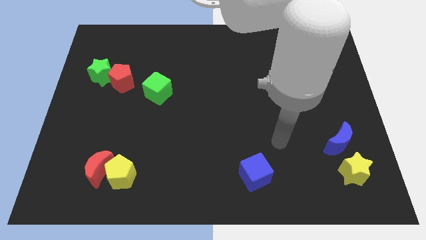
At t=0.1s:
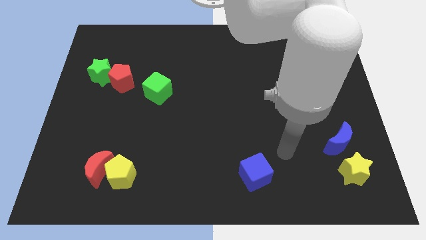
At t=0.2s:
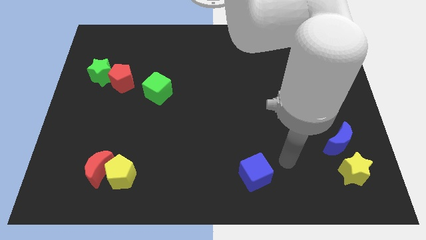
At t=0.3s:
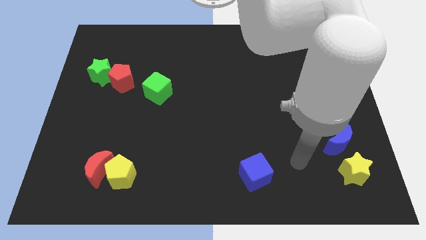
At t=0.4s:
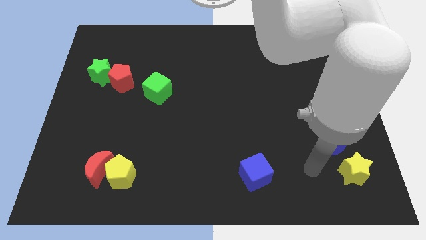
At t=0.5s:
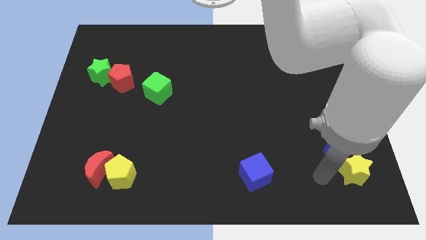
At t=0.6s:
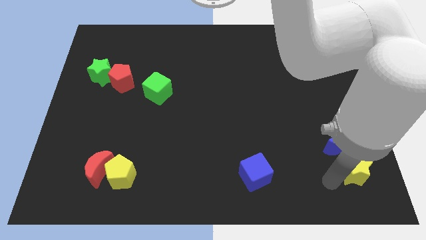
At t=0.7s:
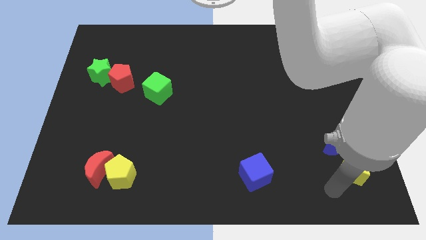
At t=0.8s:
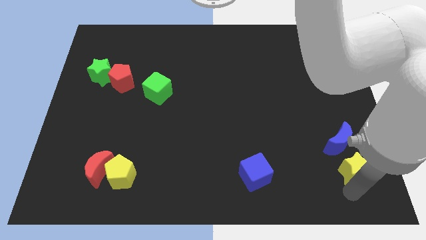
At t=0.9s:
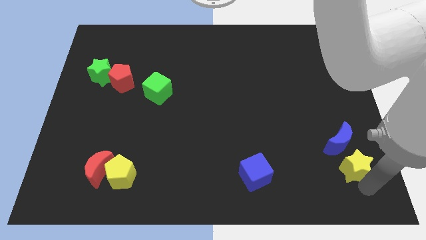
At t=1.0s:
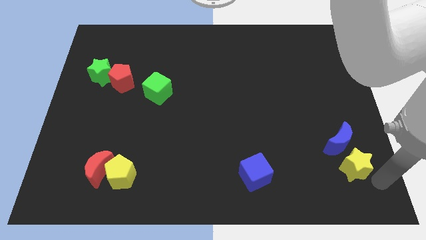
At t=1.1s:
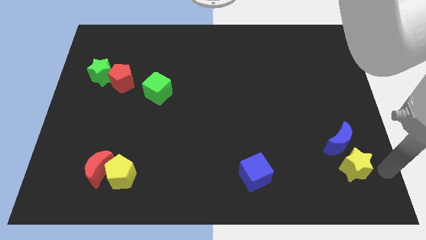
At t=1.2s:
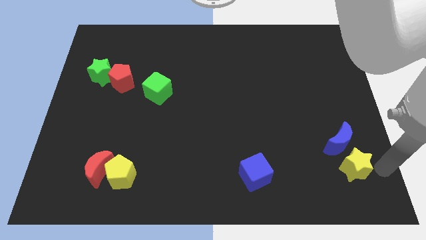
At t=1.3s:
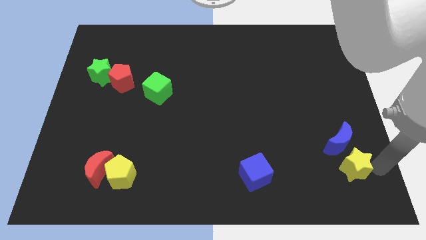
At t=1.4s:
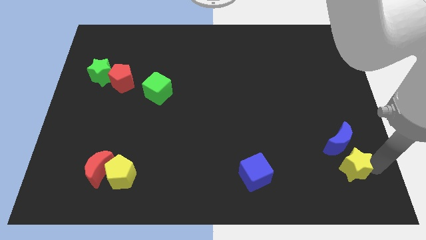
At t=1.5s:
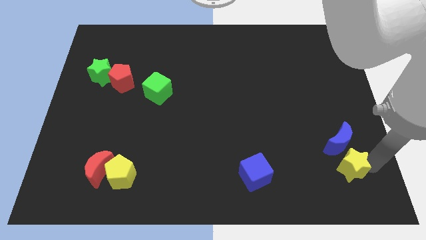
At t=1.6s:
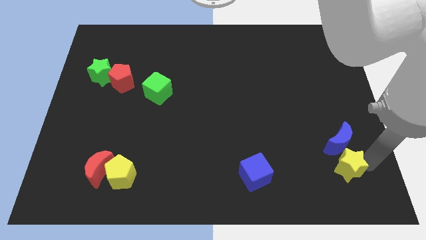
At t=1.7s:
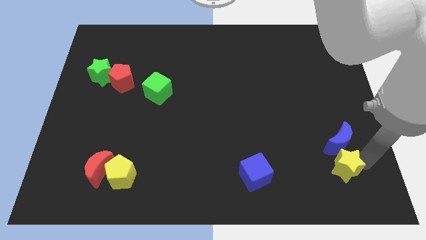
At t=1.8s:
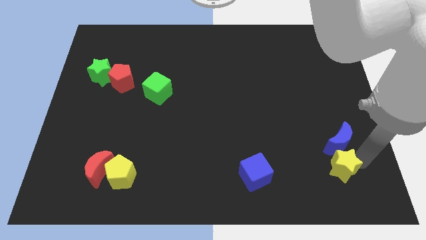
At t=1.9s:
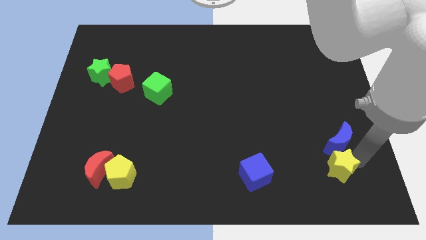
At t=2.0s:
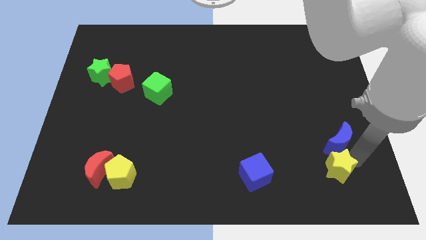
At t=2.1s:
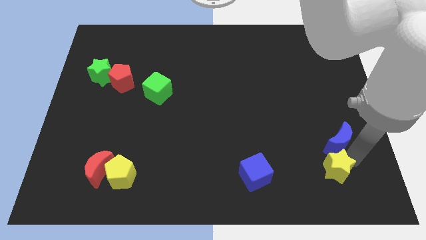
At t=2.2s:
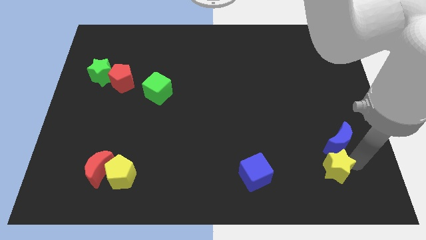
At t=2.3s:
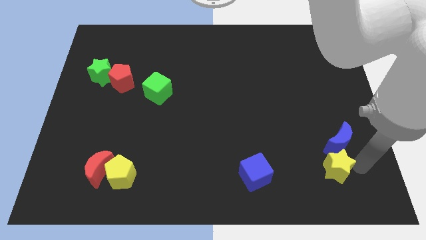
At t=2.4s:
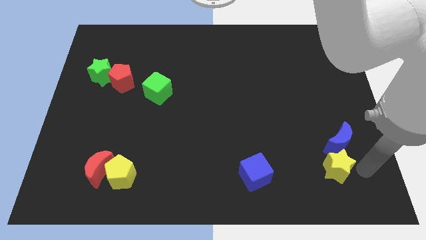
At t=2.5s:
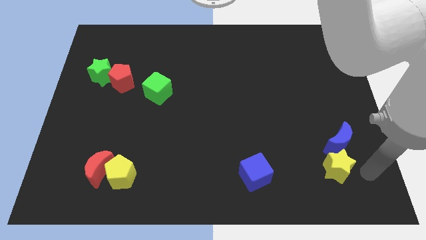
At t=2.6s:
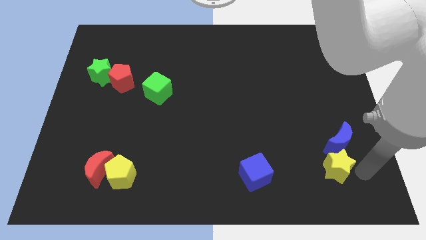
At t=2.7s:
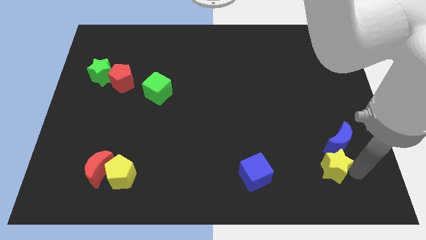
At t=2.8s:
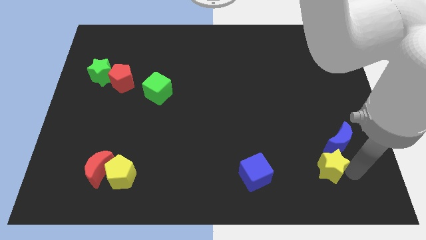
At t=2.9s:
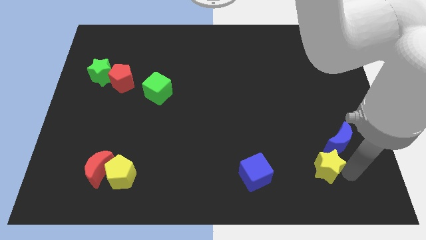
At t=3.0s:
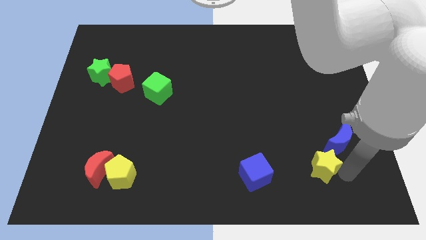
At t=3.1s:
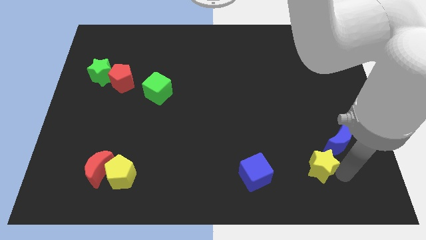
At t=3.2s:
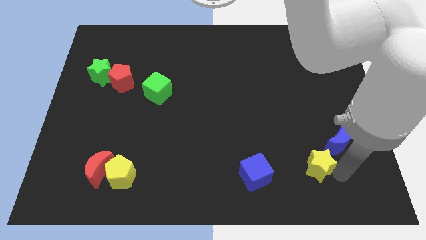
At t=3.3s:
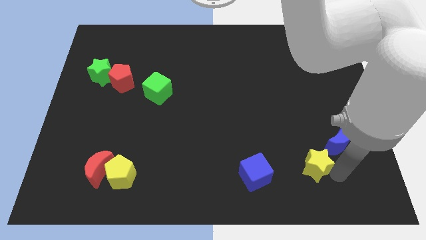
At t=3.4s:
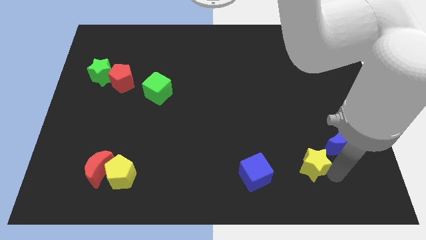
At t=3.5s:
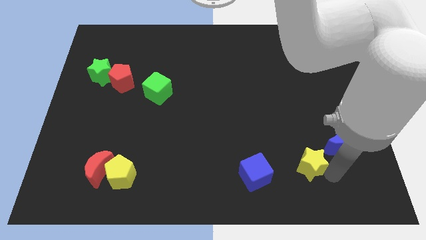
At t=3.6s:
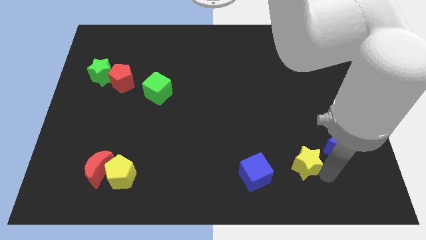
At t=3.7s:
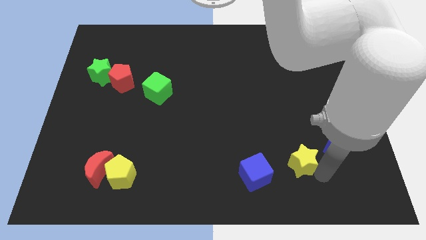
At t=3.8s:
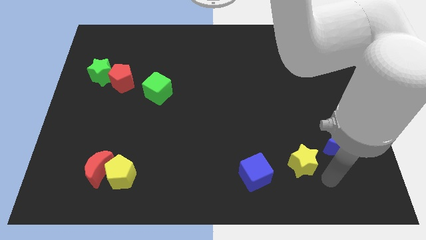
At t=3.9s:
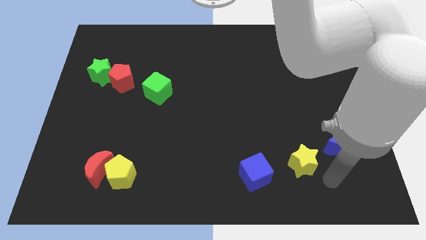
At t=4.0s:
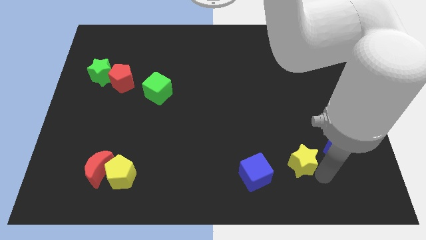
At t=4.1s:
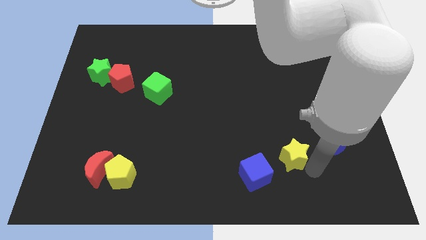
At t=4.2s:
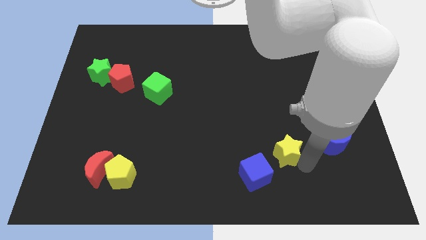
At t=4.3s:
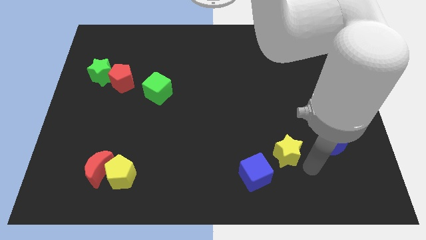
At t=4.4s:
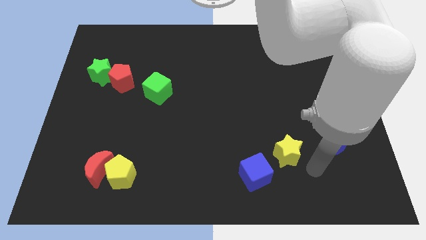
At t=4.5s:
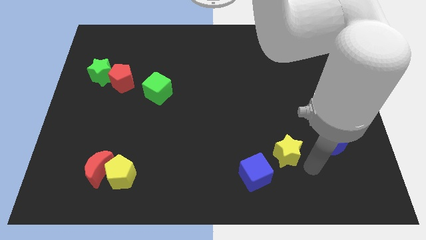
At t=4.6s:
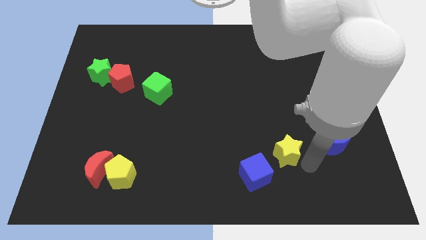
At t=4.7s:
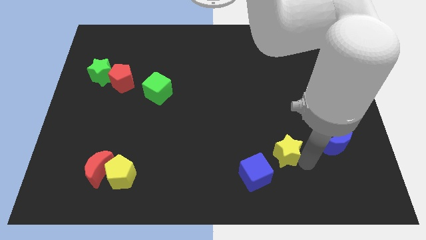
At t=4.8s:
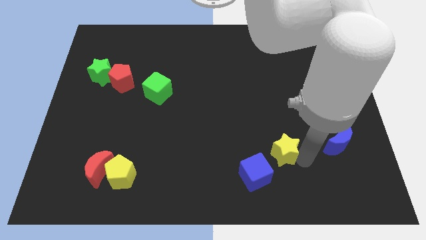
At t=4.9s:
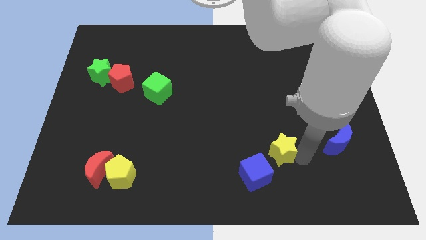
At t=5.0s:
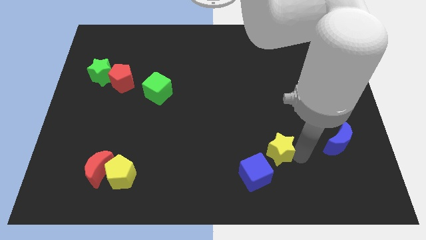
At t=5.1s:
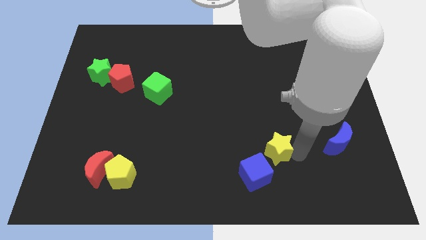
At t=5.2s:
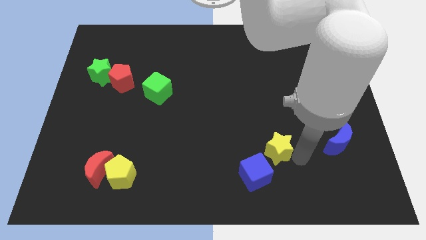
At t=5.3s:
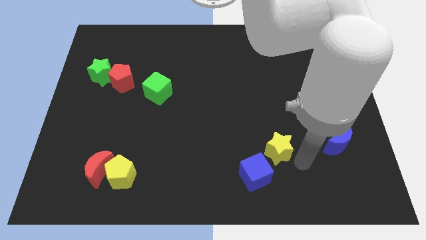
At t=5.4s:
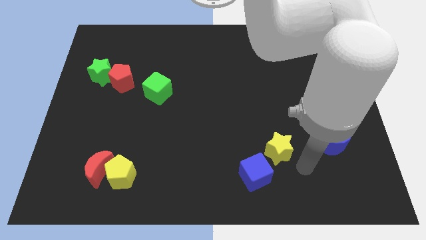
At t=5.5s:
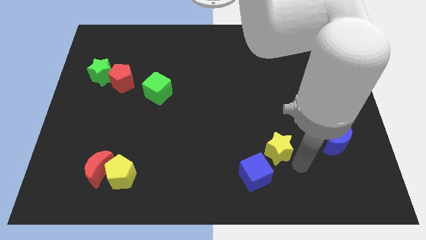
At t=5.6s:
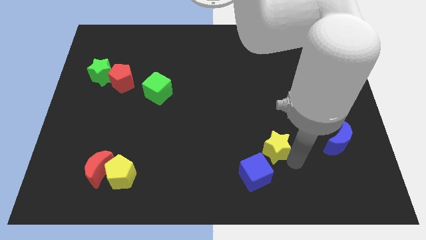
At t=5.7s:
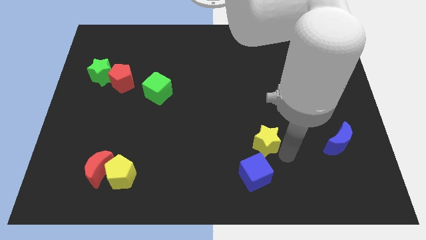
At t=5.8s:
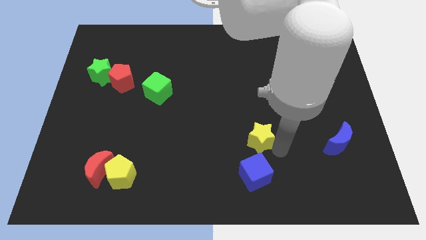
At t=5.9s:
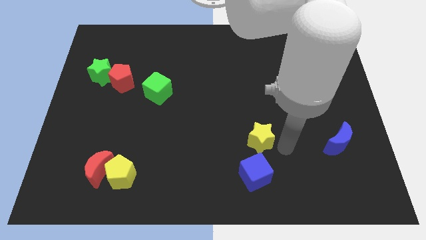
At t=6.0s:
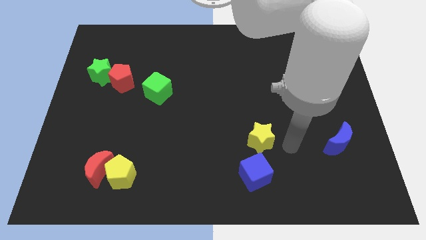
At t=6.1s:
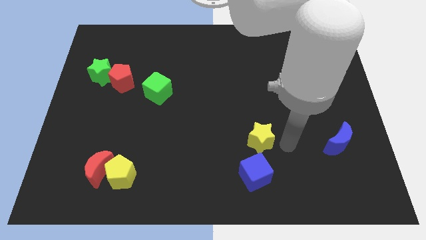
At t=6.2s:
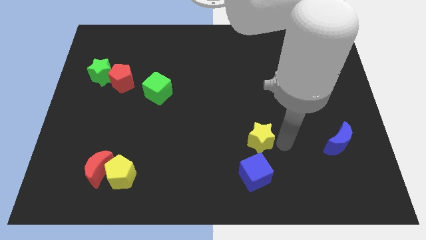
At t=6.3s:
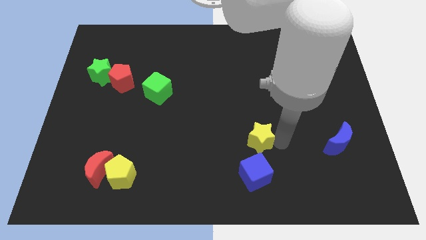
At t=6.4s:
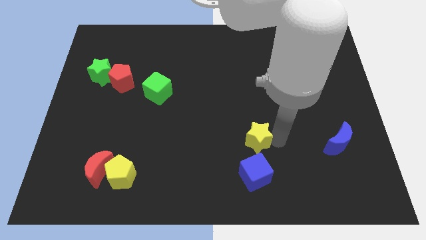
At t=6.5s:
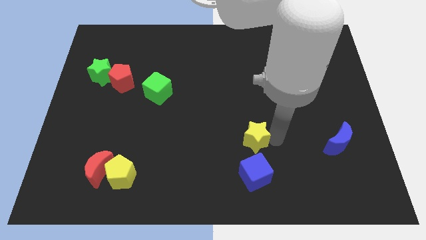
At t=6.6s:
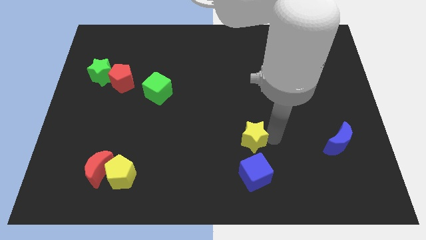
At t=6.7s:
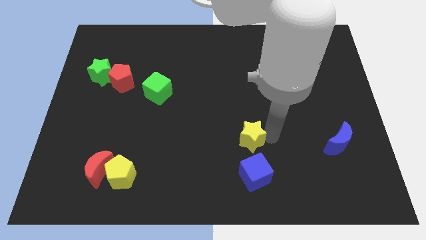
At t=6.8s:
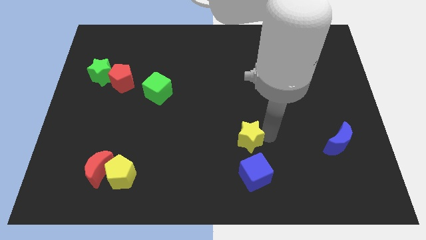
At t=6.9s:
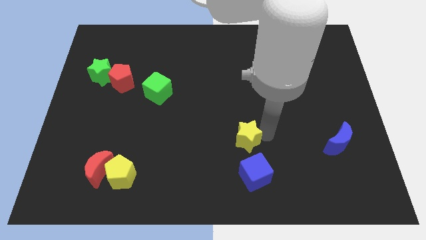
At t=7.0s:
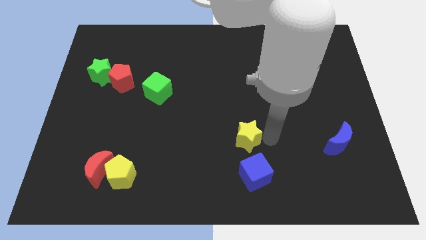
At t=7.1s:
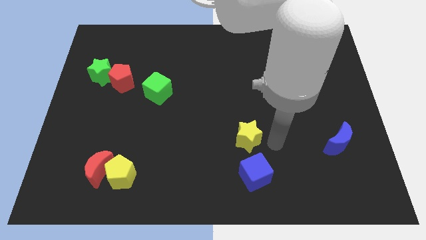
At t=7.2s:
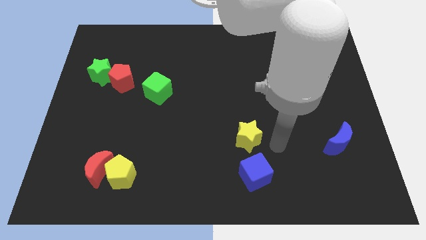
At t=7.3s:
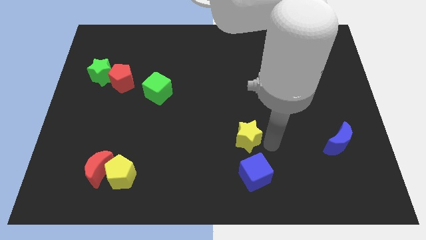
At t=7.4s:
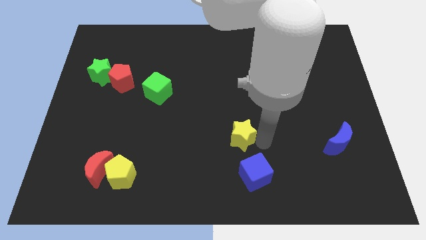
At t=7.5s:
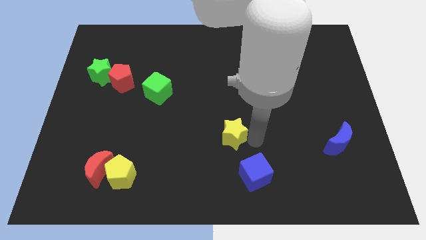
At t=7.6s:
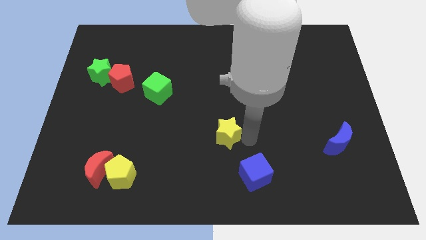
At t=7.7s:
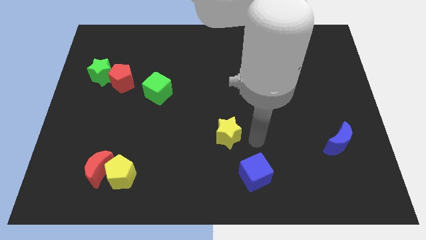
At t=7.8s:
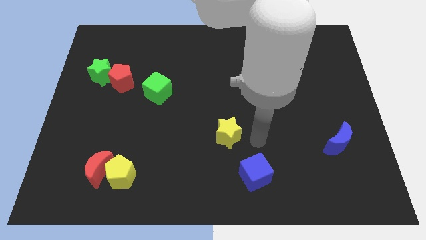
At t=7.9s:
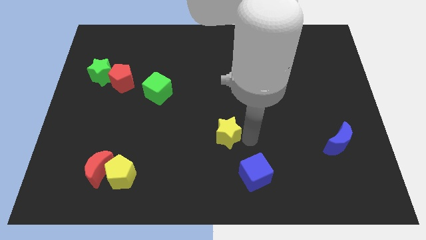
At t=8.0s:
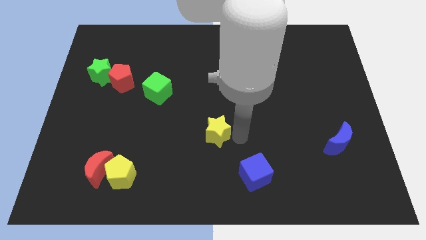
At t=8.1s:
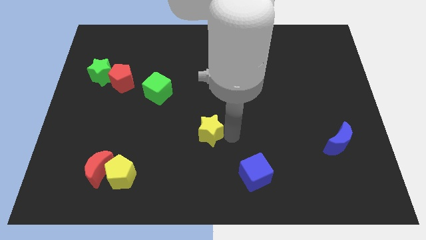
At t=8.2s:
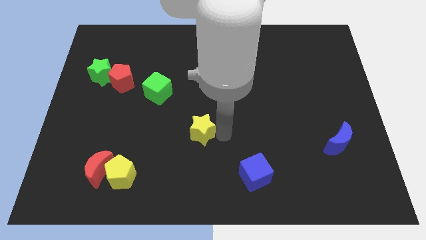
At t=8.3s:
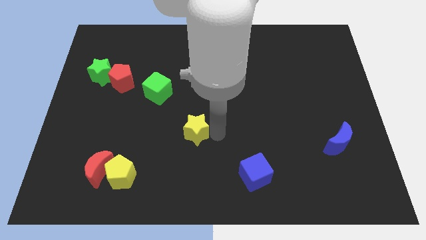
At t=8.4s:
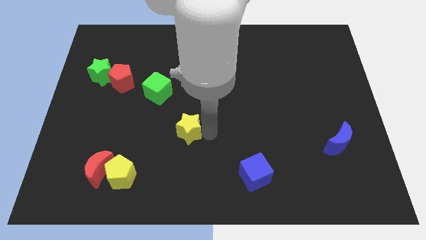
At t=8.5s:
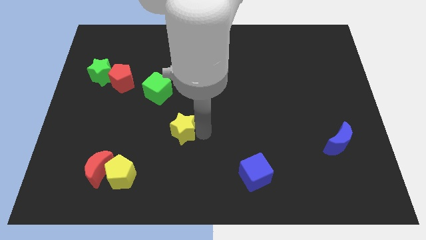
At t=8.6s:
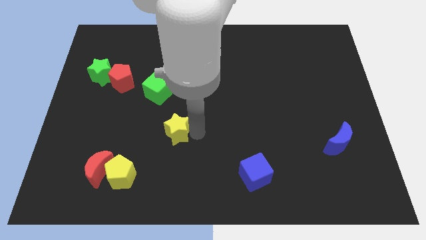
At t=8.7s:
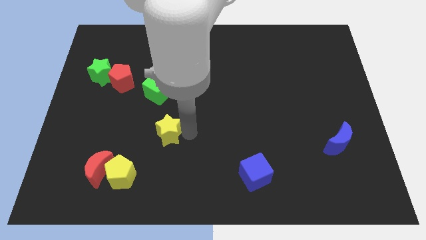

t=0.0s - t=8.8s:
move the yellow star to the bottom of the green cube
